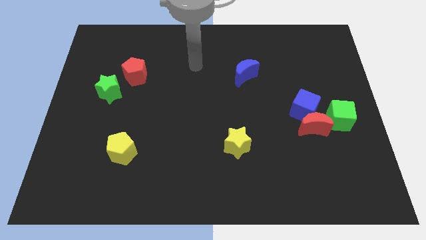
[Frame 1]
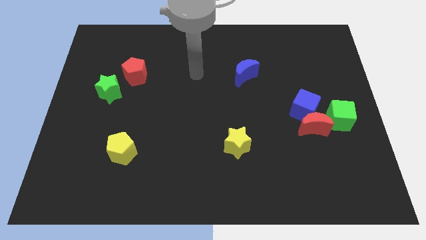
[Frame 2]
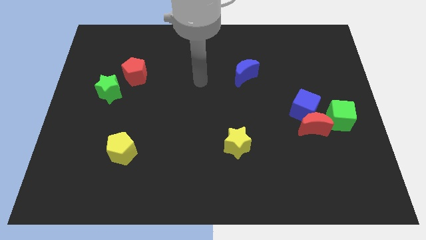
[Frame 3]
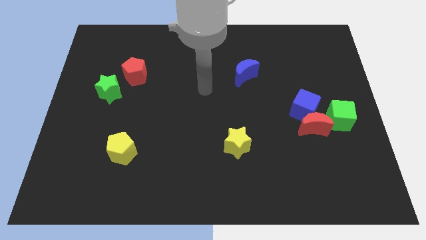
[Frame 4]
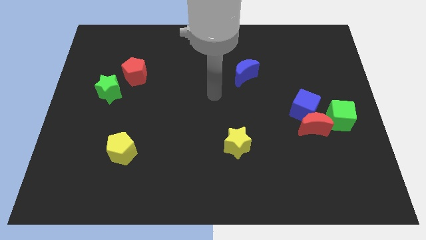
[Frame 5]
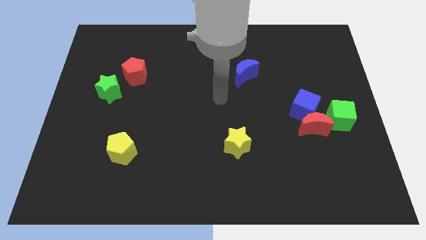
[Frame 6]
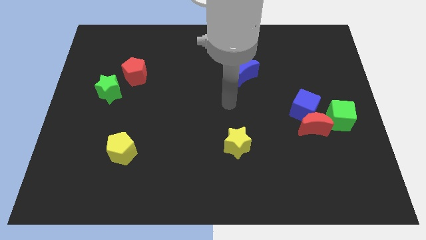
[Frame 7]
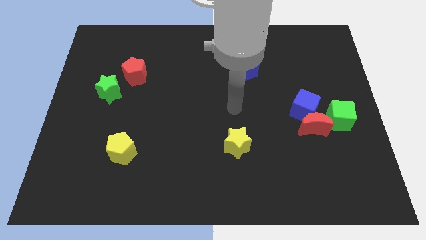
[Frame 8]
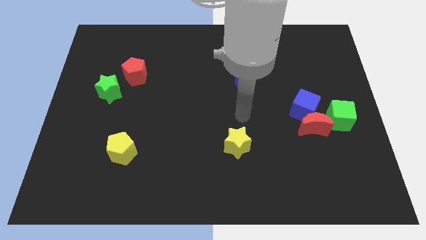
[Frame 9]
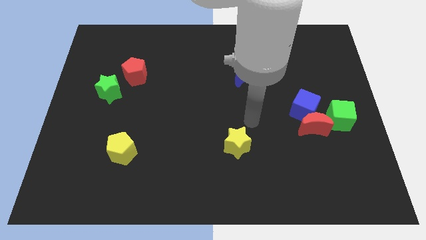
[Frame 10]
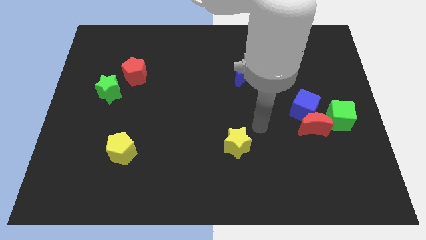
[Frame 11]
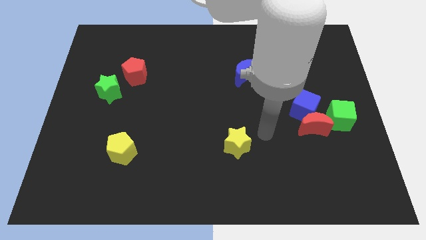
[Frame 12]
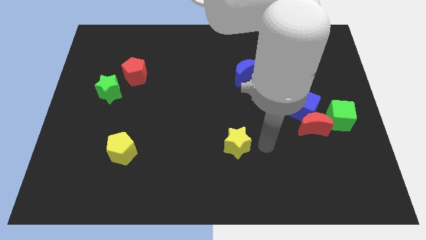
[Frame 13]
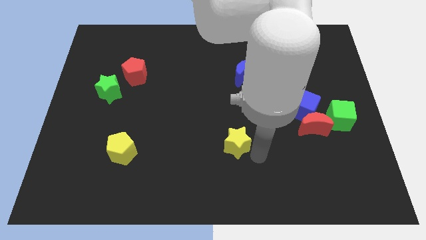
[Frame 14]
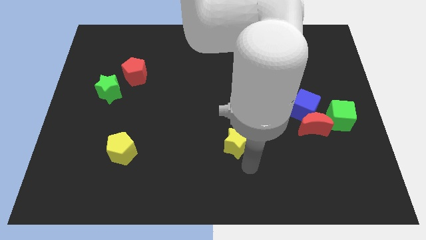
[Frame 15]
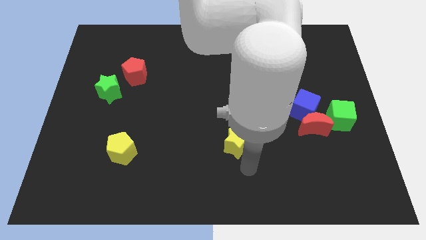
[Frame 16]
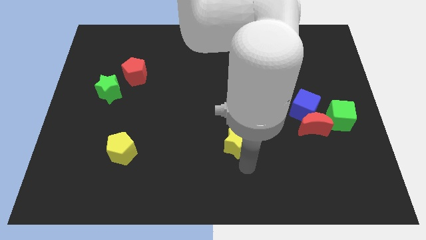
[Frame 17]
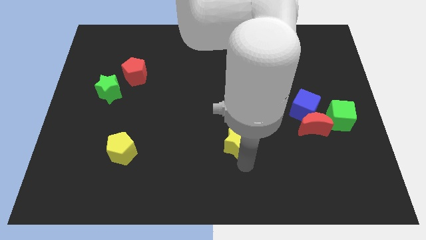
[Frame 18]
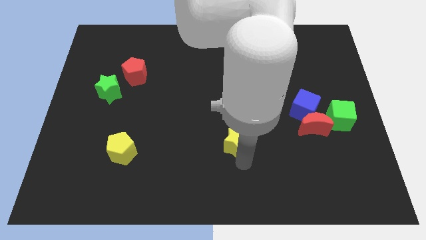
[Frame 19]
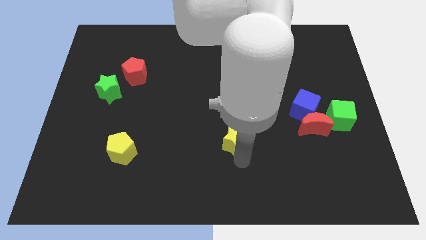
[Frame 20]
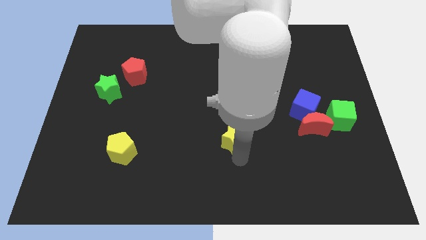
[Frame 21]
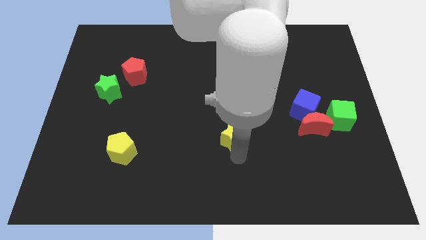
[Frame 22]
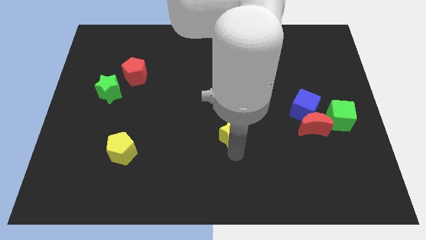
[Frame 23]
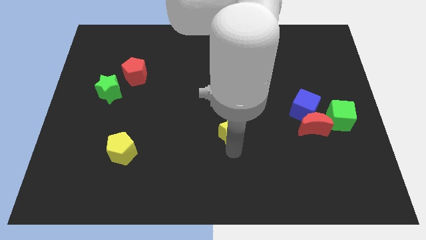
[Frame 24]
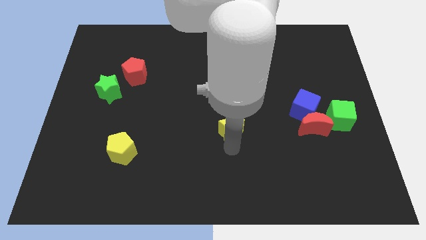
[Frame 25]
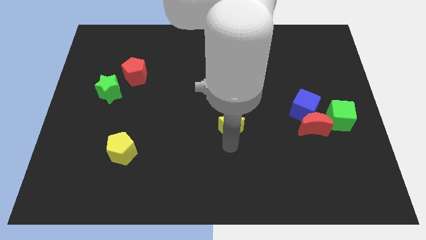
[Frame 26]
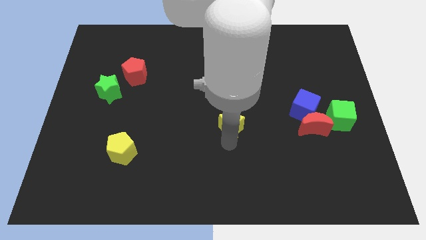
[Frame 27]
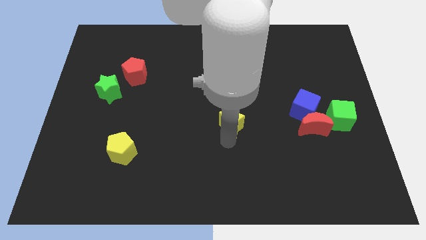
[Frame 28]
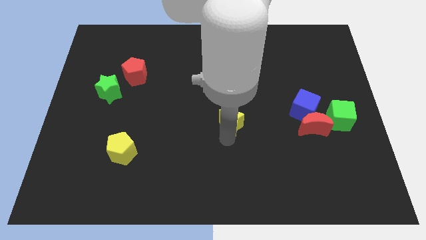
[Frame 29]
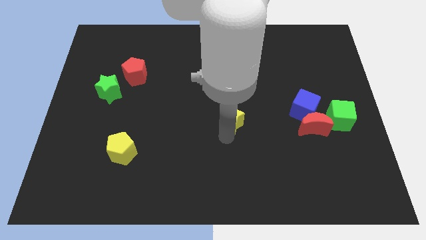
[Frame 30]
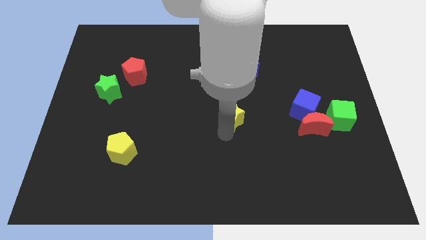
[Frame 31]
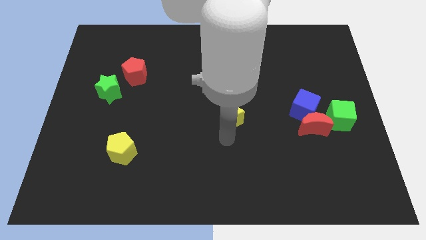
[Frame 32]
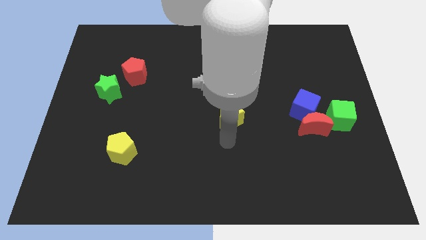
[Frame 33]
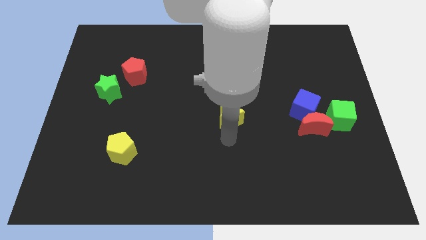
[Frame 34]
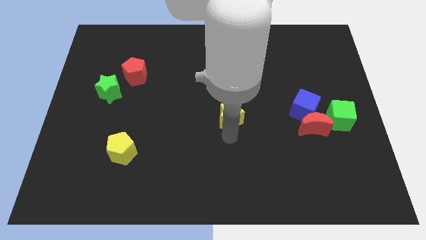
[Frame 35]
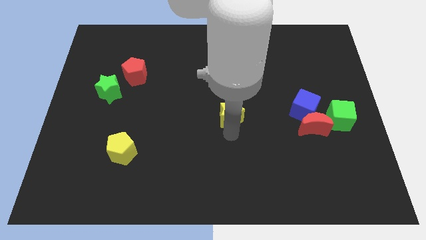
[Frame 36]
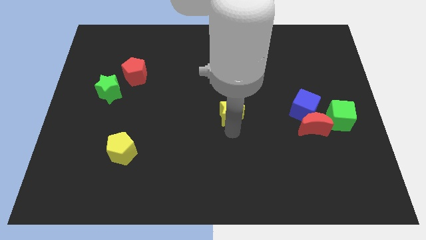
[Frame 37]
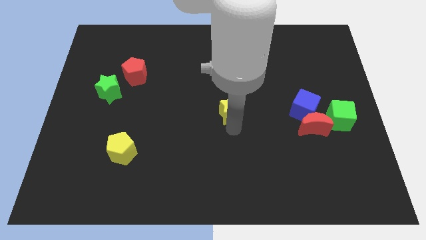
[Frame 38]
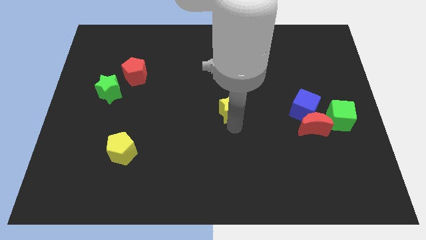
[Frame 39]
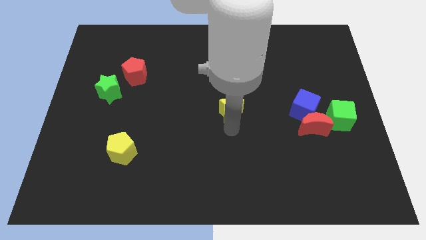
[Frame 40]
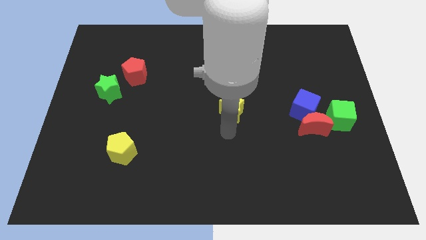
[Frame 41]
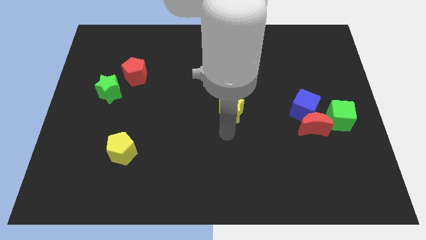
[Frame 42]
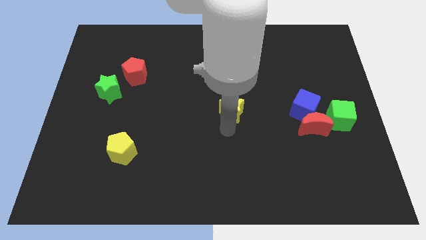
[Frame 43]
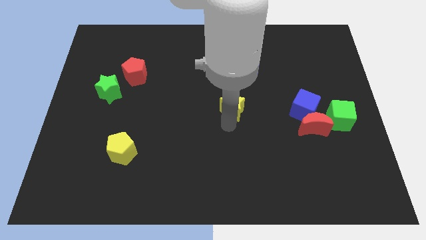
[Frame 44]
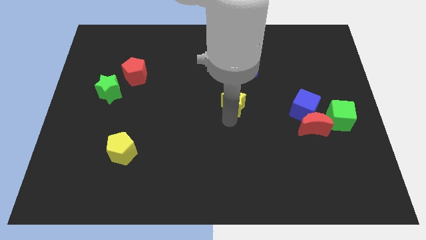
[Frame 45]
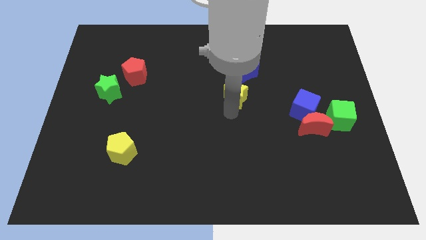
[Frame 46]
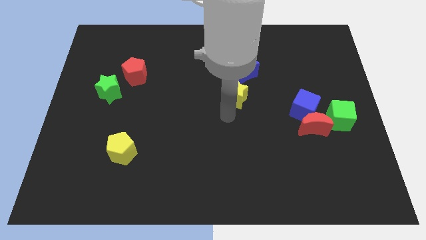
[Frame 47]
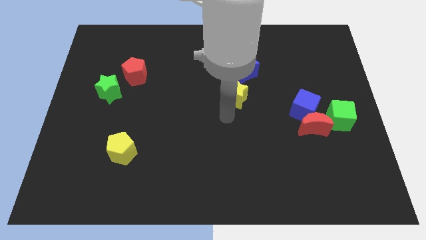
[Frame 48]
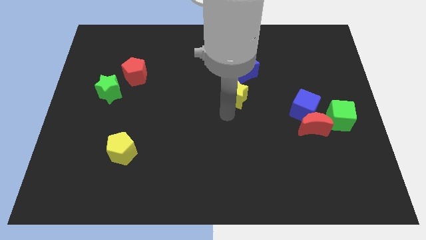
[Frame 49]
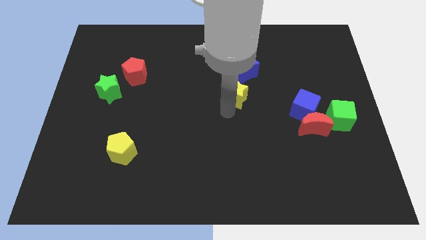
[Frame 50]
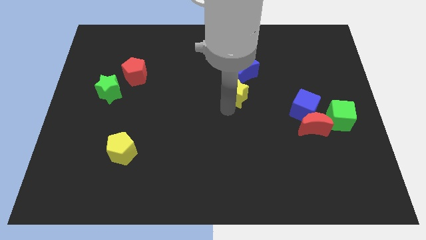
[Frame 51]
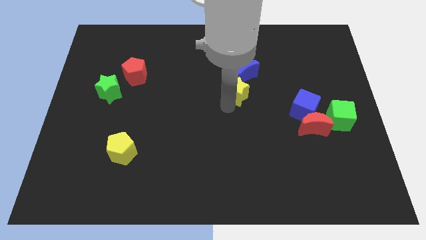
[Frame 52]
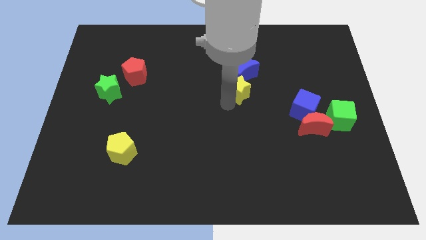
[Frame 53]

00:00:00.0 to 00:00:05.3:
move the yellow star to the blue moon

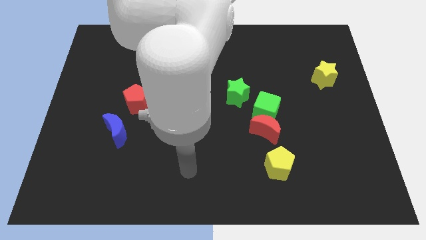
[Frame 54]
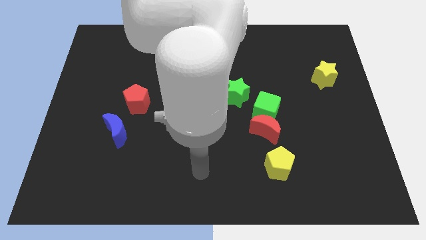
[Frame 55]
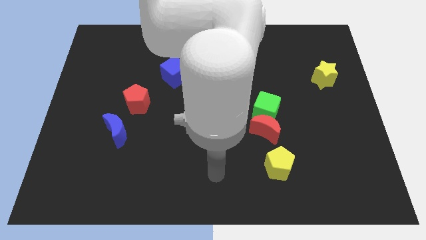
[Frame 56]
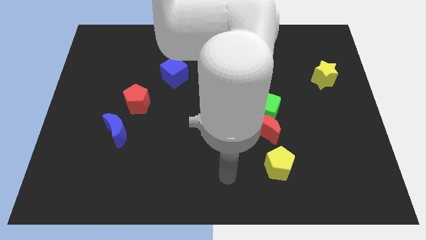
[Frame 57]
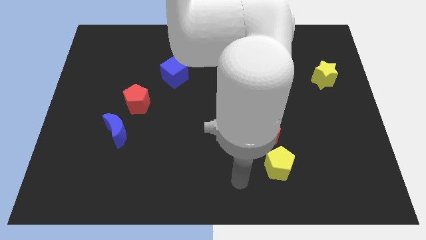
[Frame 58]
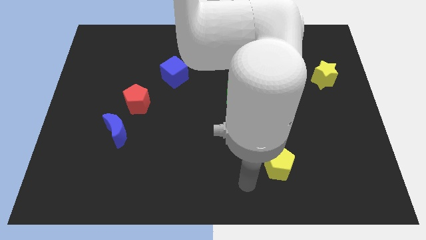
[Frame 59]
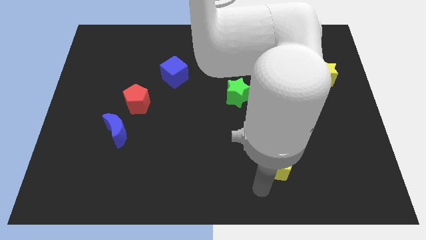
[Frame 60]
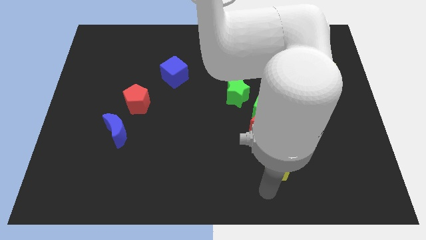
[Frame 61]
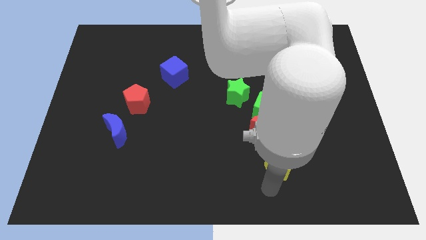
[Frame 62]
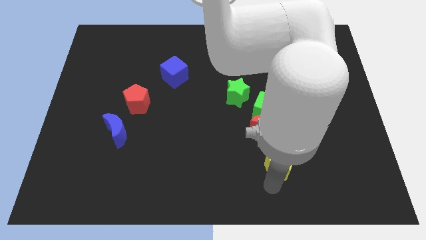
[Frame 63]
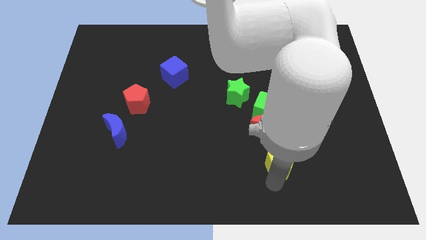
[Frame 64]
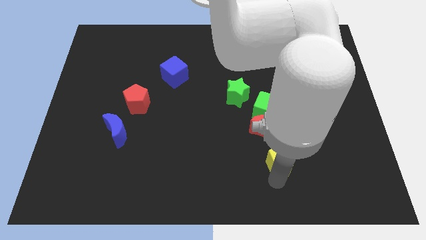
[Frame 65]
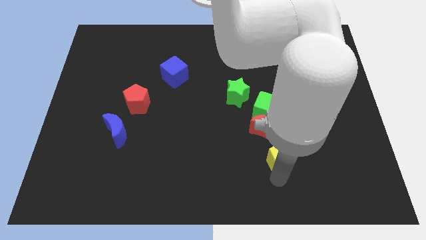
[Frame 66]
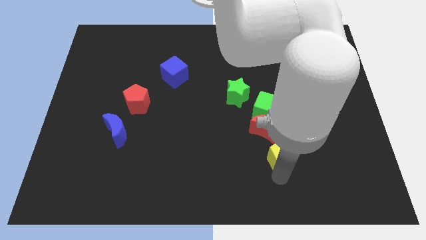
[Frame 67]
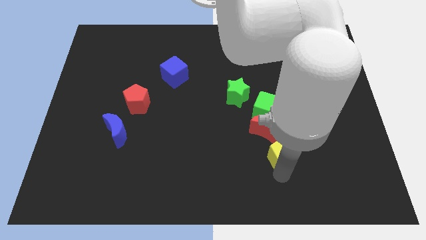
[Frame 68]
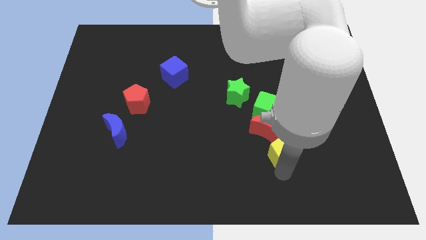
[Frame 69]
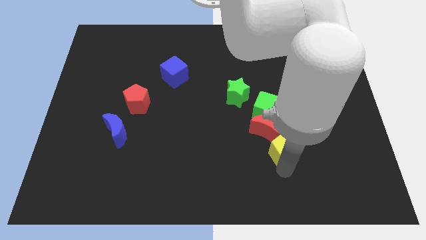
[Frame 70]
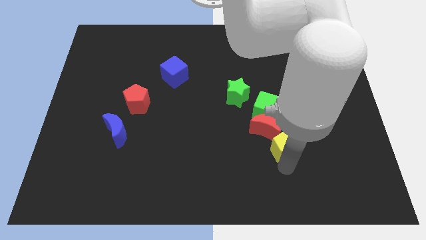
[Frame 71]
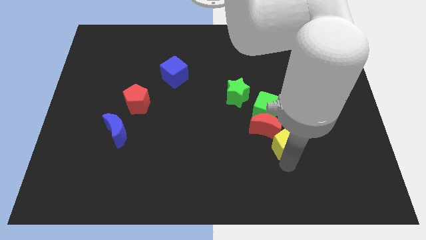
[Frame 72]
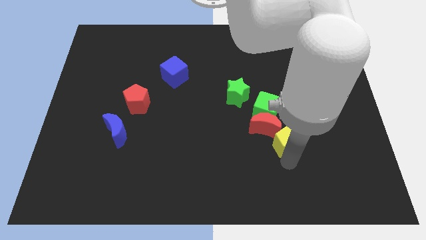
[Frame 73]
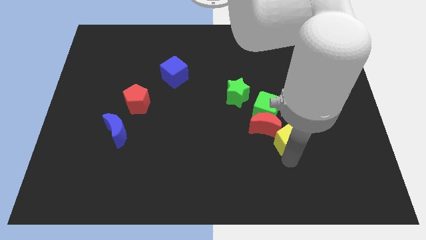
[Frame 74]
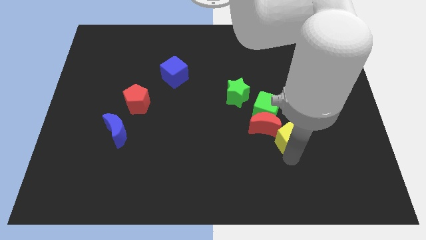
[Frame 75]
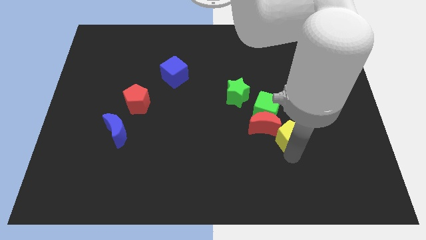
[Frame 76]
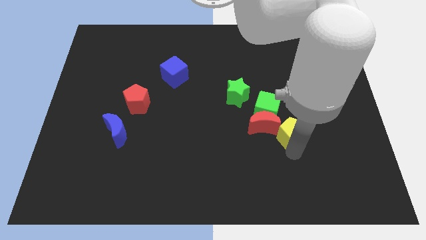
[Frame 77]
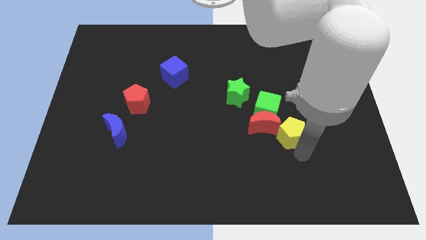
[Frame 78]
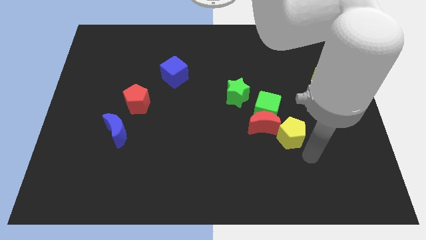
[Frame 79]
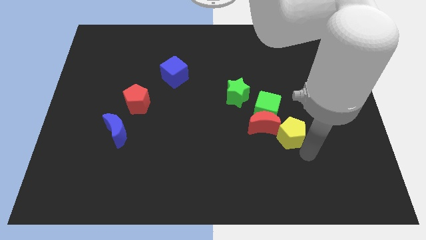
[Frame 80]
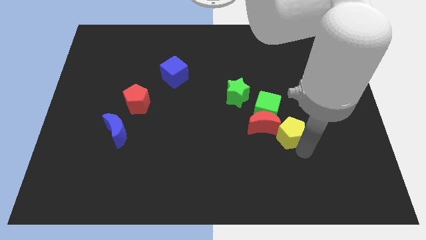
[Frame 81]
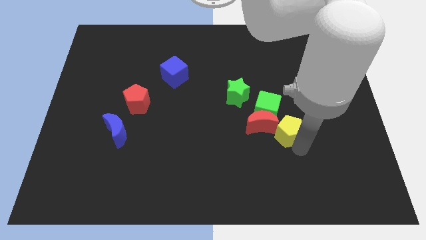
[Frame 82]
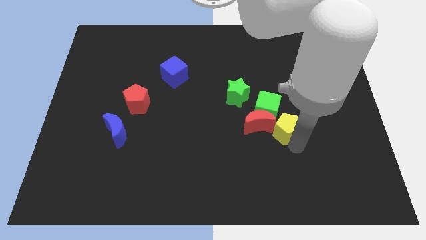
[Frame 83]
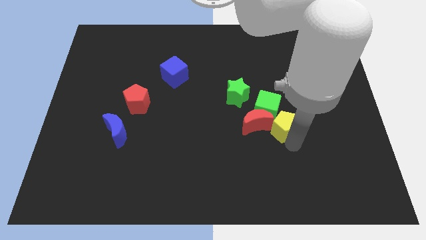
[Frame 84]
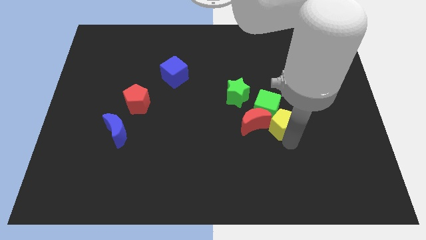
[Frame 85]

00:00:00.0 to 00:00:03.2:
put the yellow pentagon next to the green cube
